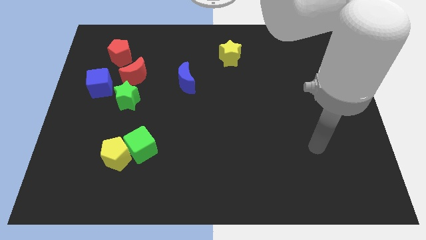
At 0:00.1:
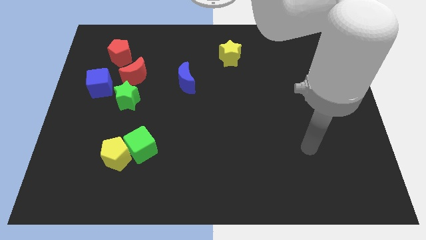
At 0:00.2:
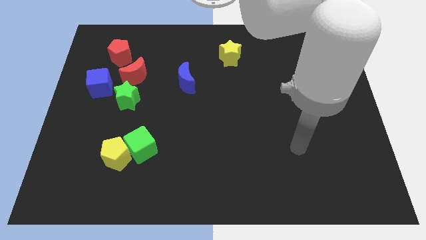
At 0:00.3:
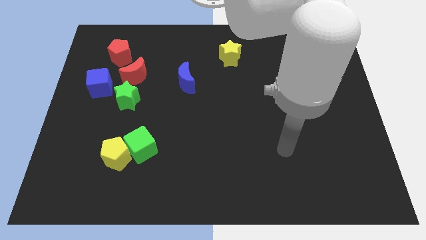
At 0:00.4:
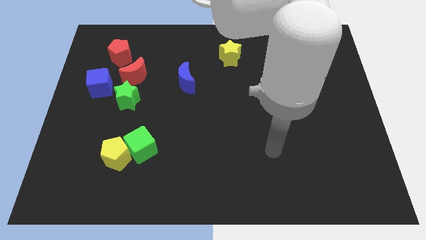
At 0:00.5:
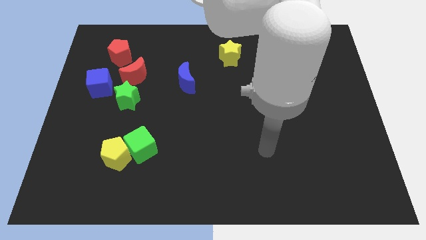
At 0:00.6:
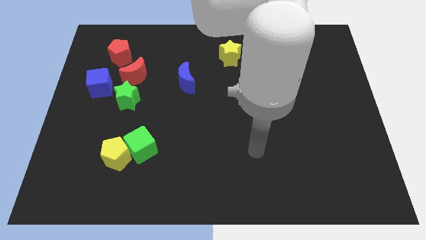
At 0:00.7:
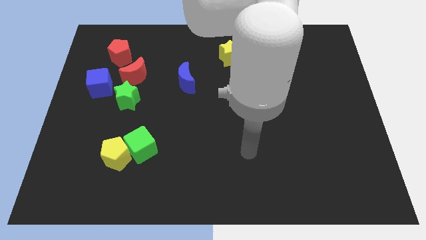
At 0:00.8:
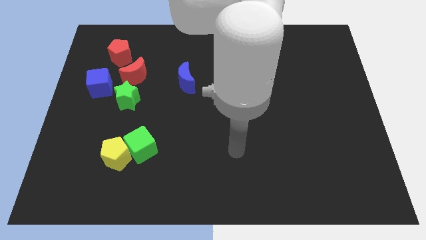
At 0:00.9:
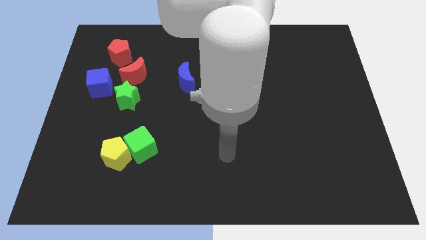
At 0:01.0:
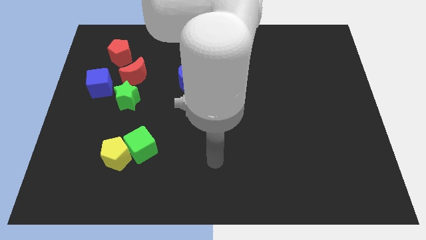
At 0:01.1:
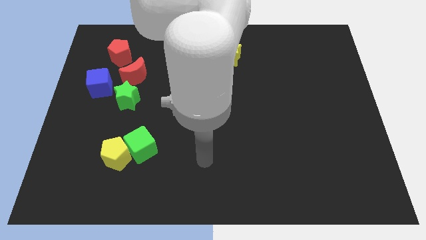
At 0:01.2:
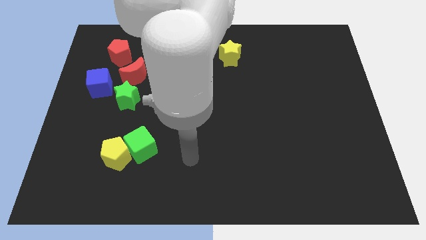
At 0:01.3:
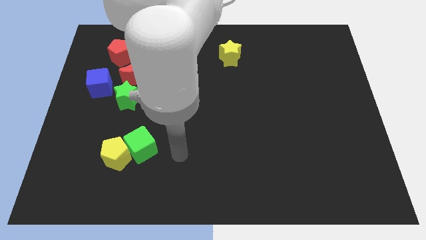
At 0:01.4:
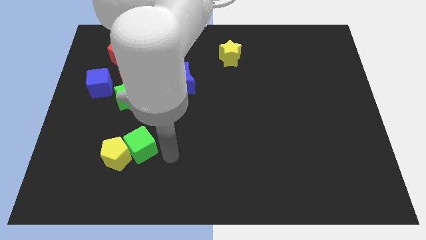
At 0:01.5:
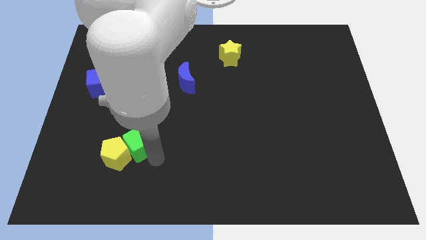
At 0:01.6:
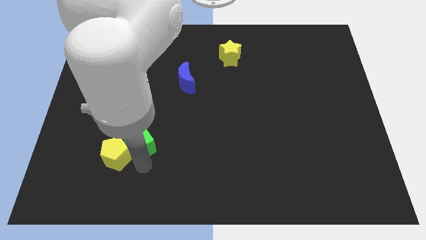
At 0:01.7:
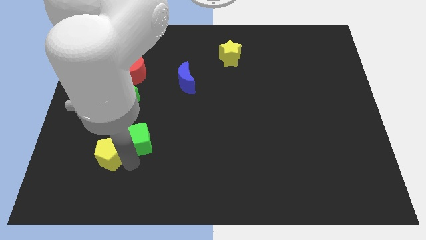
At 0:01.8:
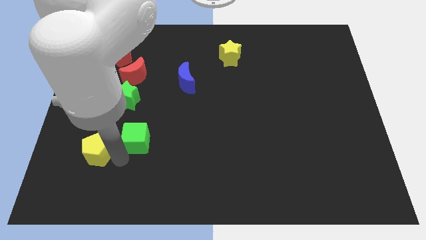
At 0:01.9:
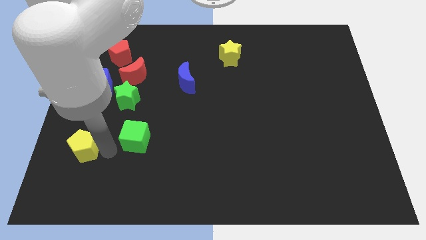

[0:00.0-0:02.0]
pull the green cube apart from the yellow pentagon

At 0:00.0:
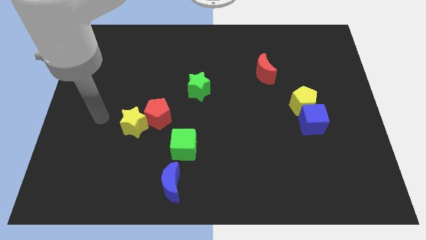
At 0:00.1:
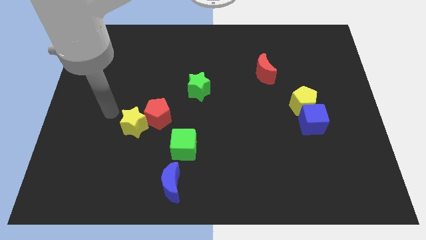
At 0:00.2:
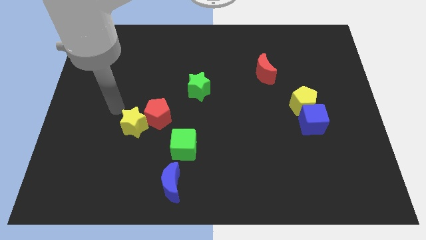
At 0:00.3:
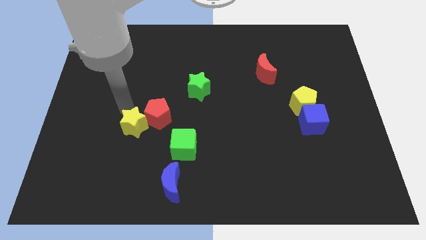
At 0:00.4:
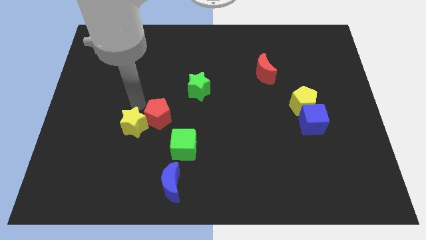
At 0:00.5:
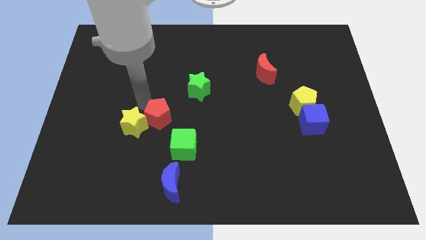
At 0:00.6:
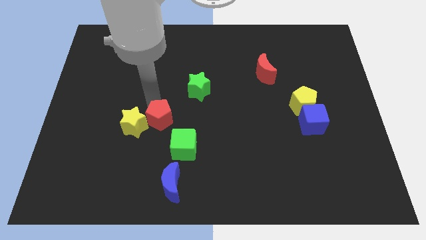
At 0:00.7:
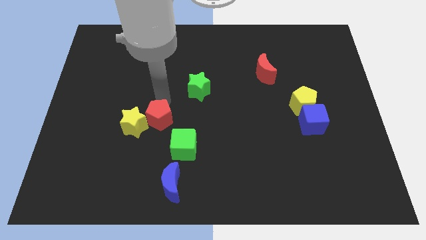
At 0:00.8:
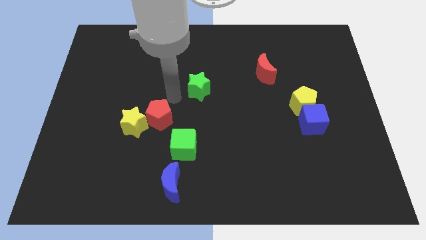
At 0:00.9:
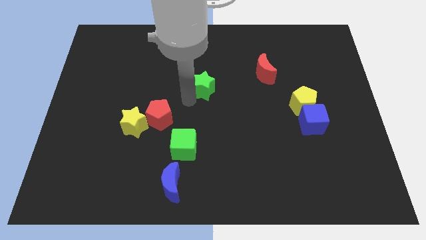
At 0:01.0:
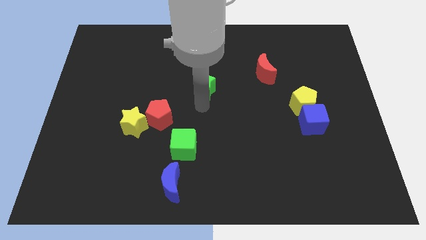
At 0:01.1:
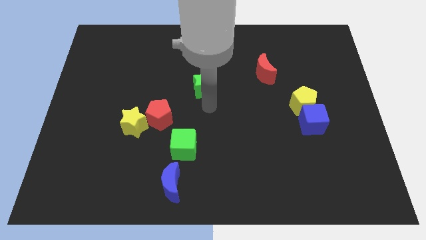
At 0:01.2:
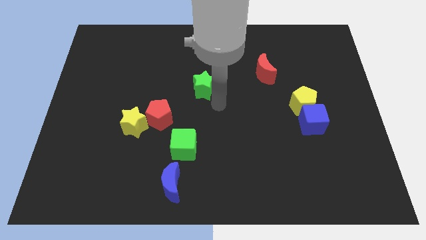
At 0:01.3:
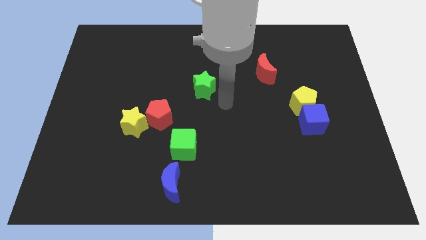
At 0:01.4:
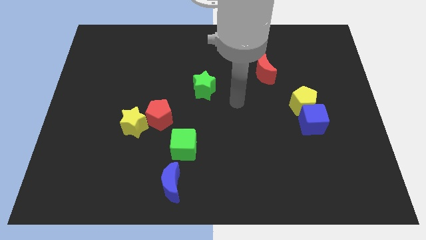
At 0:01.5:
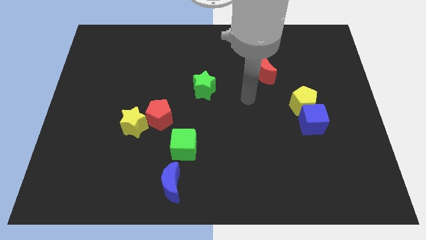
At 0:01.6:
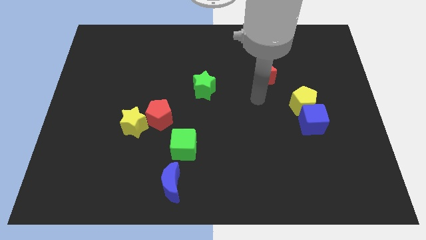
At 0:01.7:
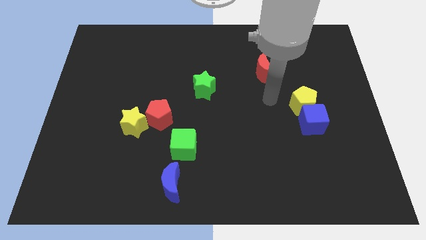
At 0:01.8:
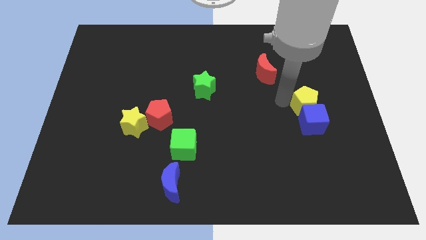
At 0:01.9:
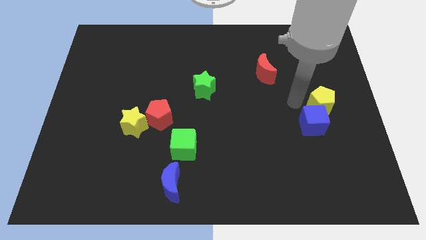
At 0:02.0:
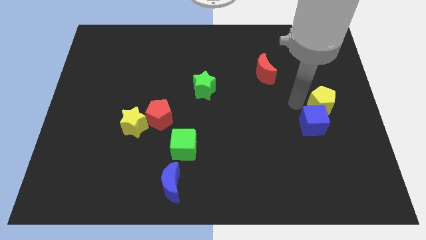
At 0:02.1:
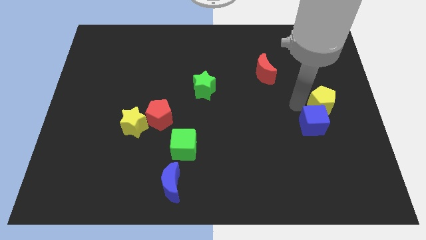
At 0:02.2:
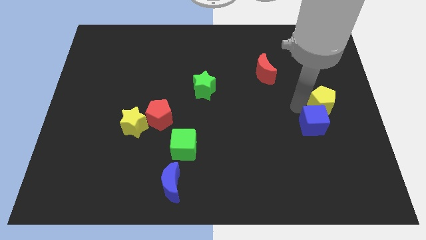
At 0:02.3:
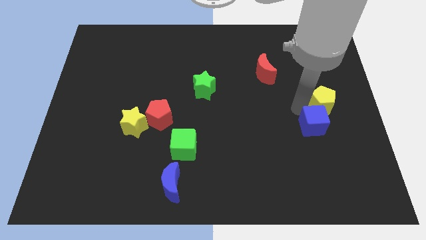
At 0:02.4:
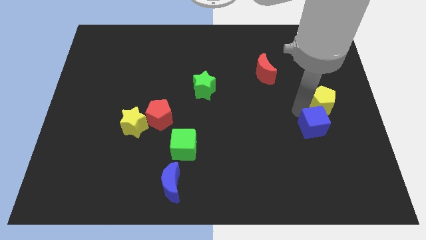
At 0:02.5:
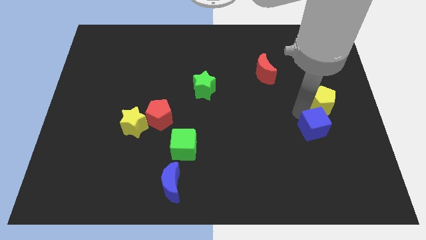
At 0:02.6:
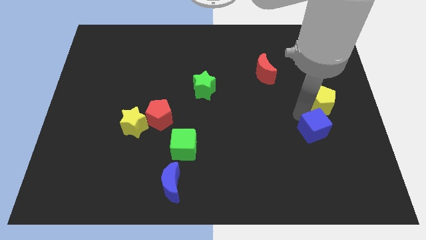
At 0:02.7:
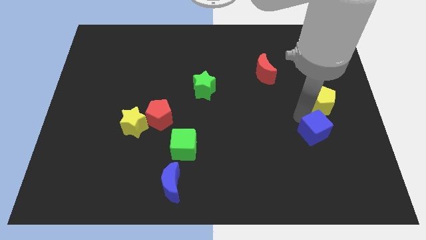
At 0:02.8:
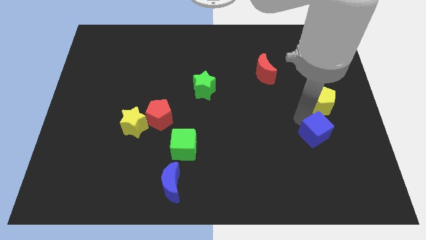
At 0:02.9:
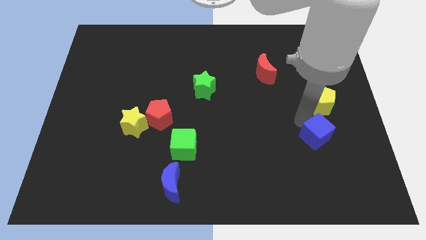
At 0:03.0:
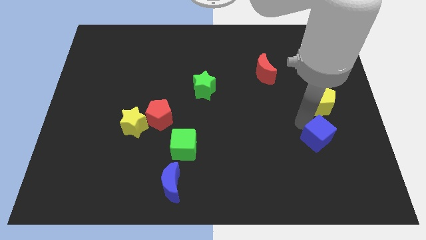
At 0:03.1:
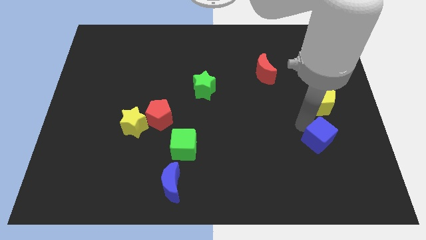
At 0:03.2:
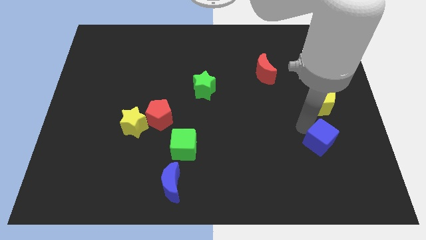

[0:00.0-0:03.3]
move the blue cube away from the yellow pentagon

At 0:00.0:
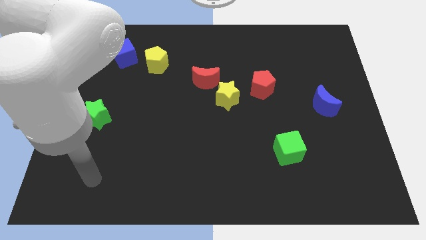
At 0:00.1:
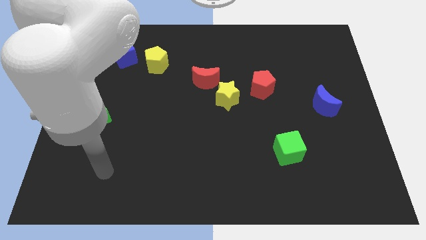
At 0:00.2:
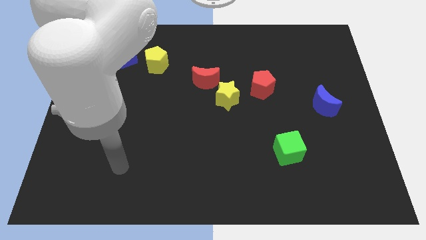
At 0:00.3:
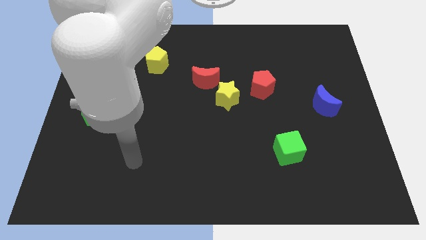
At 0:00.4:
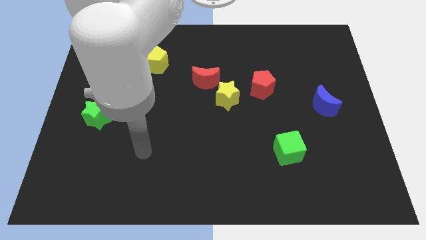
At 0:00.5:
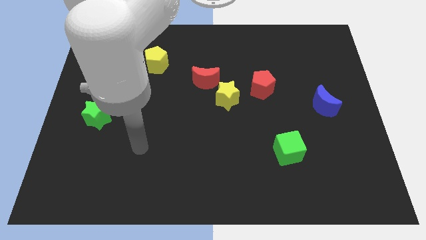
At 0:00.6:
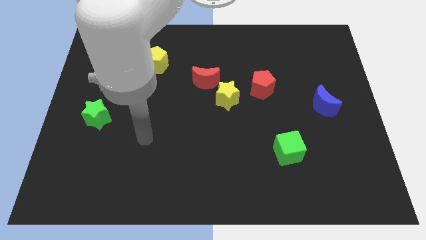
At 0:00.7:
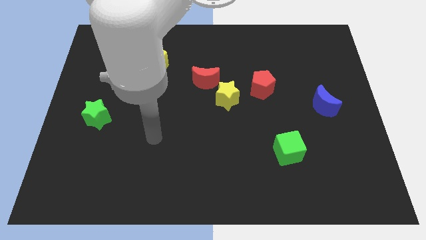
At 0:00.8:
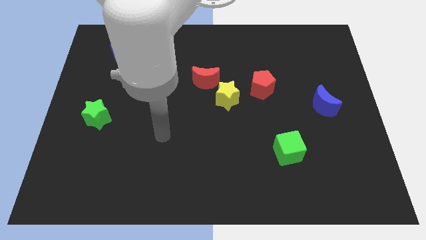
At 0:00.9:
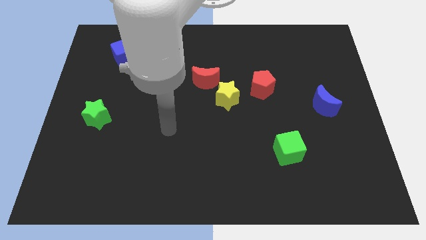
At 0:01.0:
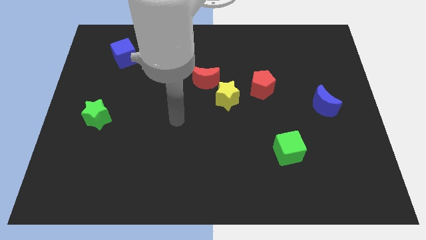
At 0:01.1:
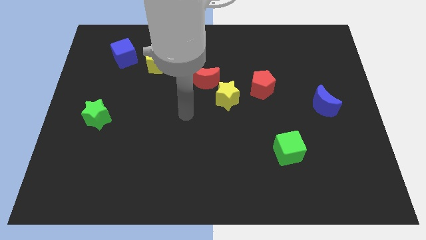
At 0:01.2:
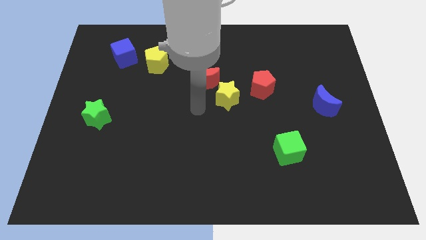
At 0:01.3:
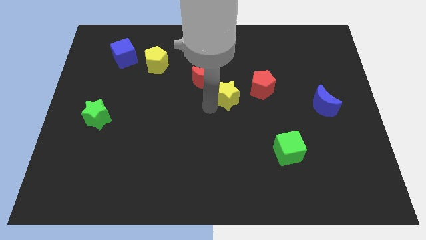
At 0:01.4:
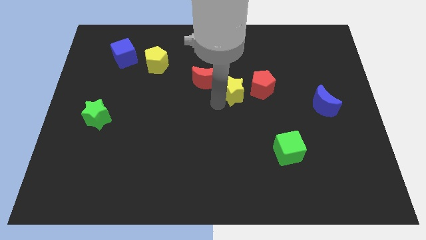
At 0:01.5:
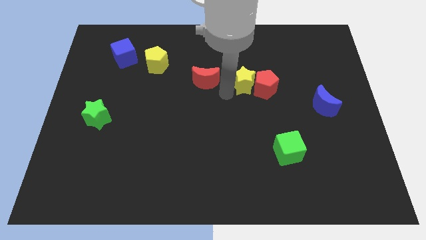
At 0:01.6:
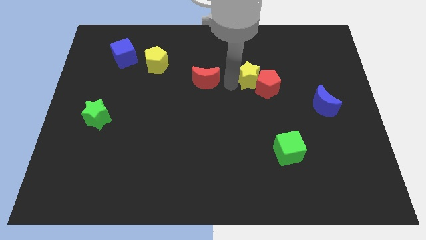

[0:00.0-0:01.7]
pull the red moon apart from the yellow star

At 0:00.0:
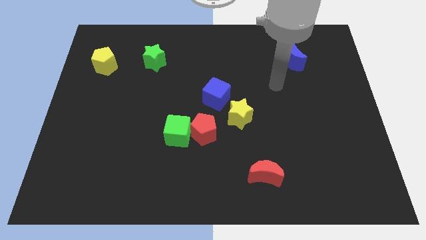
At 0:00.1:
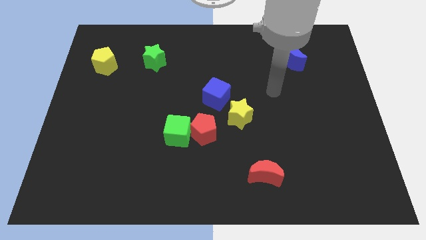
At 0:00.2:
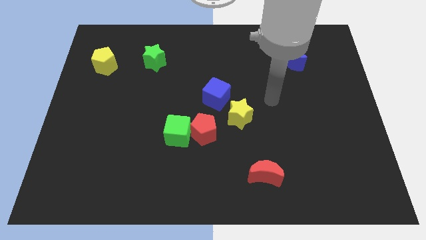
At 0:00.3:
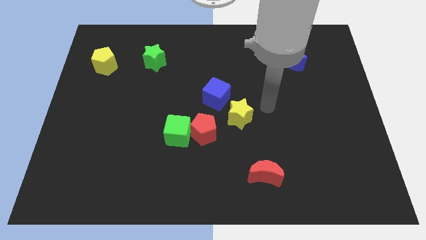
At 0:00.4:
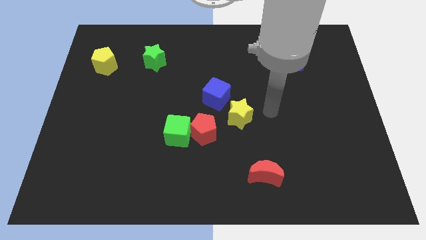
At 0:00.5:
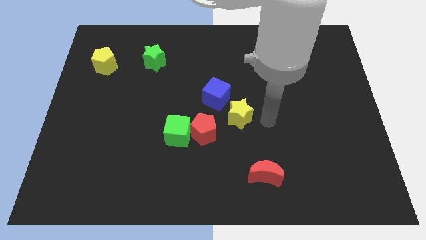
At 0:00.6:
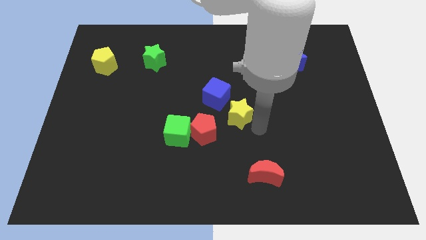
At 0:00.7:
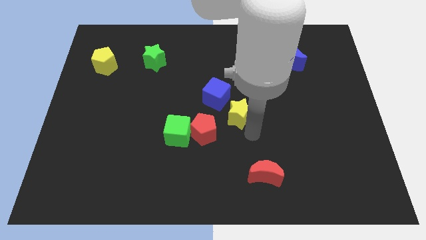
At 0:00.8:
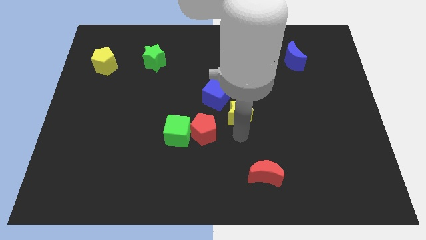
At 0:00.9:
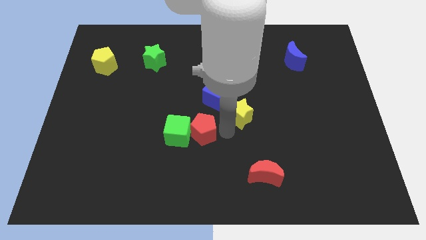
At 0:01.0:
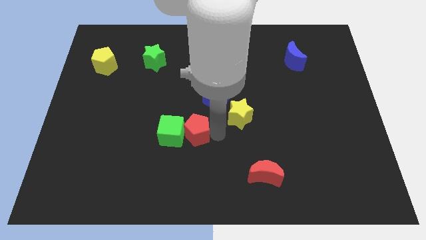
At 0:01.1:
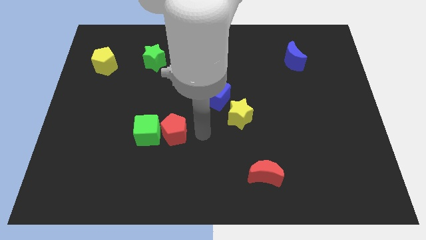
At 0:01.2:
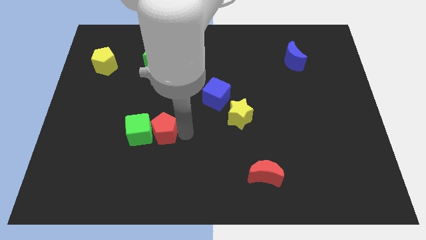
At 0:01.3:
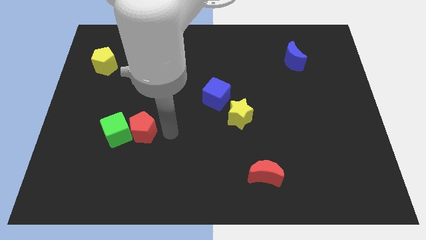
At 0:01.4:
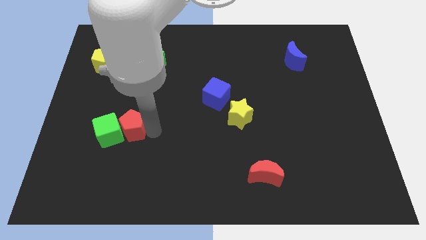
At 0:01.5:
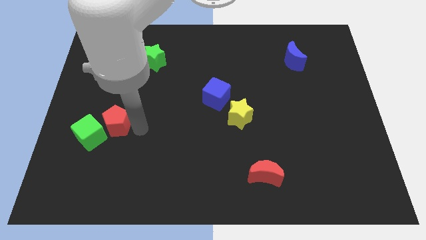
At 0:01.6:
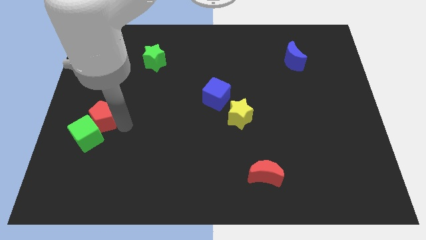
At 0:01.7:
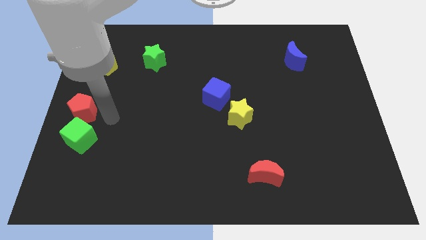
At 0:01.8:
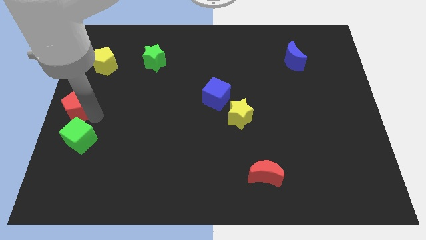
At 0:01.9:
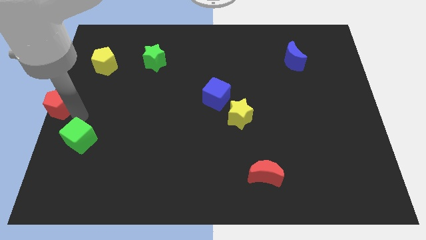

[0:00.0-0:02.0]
separate the green cube from the red pentagon

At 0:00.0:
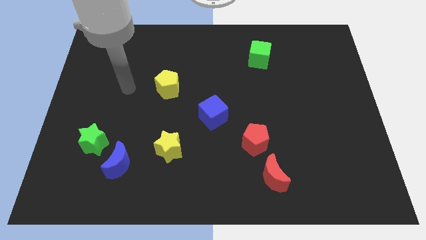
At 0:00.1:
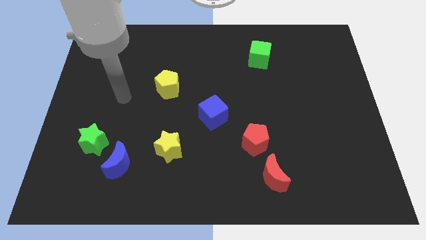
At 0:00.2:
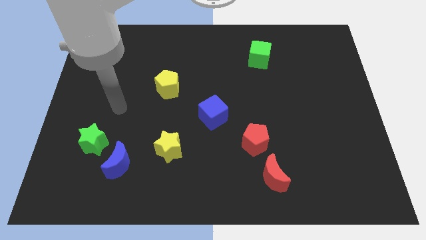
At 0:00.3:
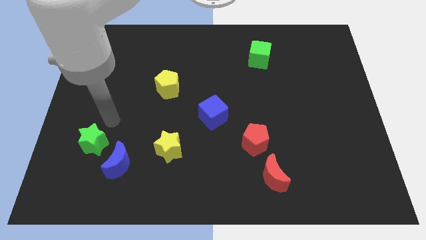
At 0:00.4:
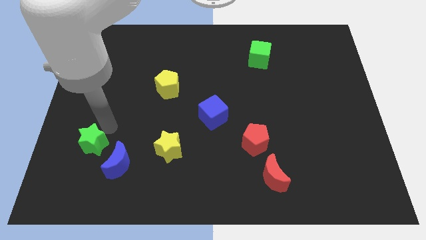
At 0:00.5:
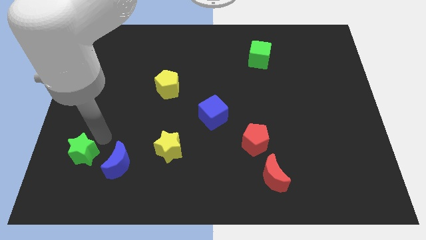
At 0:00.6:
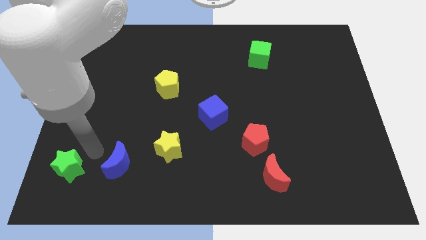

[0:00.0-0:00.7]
separate the blue moon from the green star
